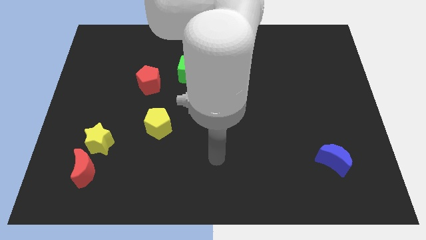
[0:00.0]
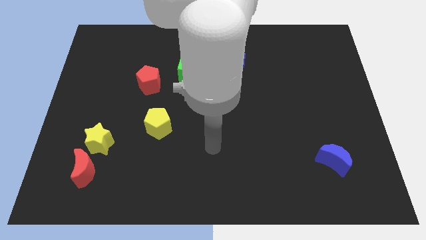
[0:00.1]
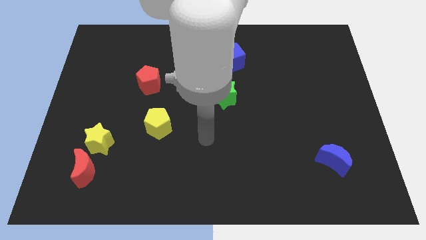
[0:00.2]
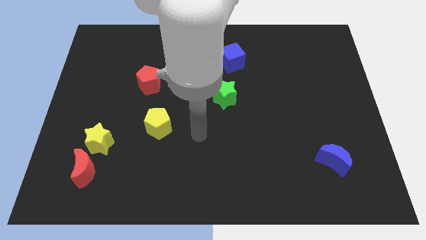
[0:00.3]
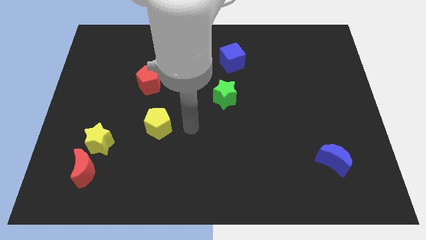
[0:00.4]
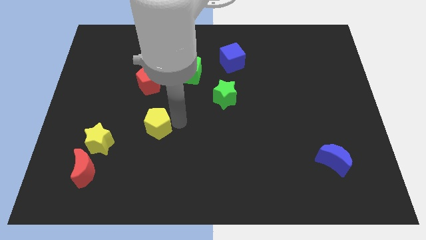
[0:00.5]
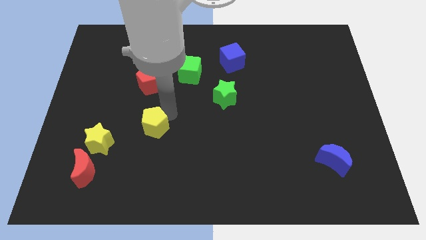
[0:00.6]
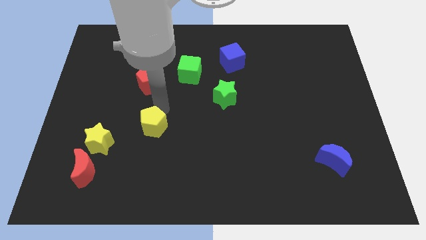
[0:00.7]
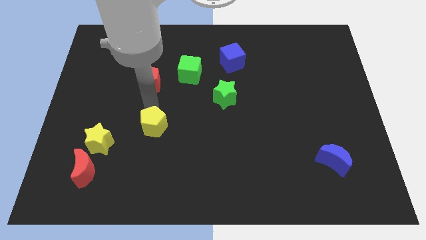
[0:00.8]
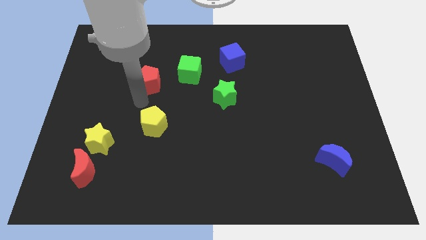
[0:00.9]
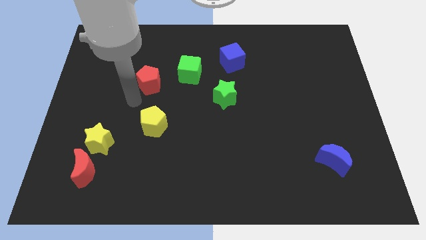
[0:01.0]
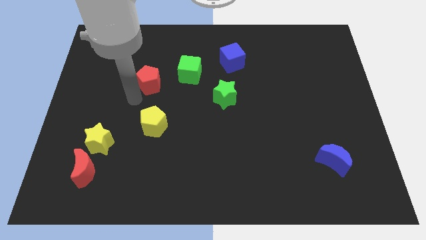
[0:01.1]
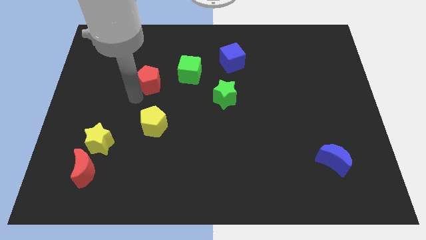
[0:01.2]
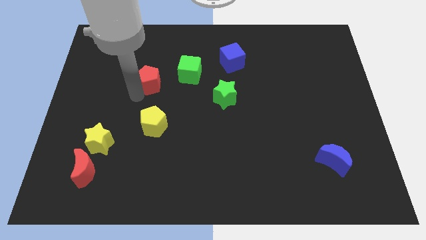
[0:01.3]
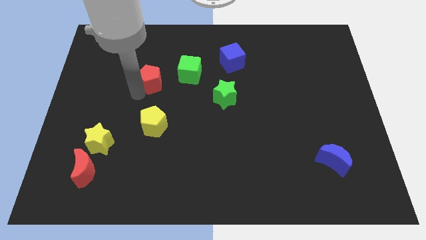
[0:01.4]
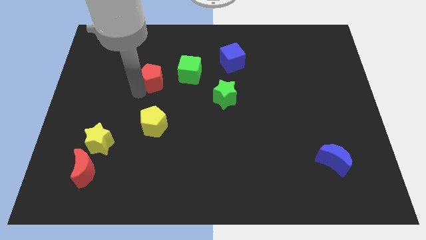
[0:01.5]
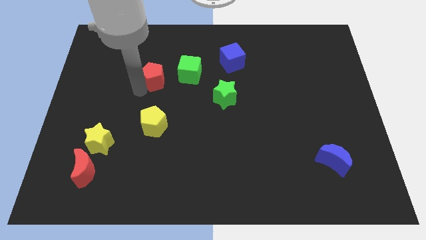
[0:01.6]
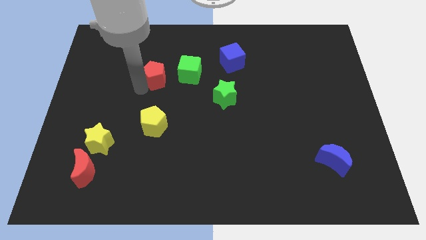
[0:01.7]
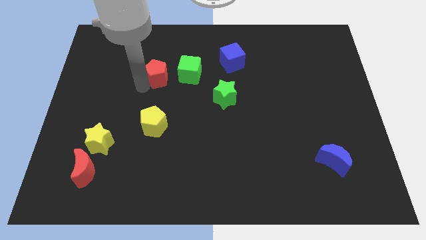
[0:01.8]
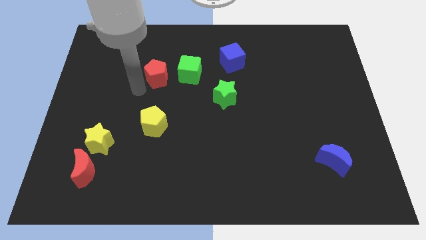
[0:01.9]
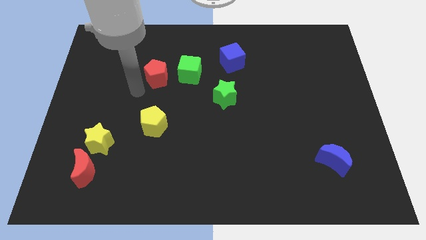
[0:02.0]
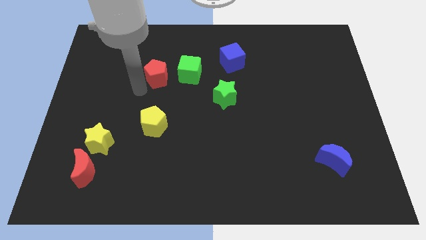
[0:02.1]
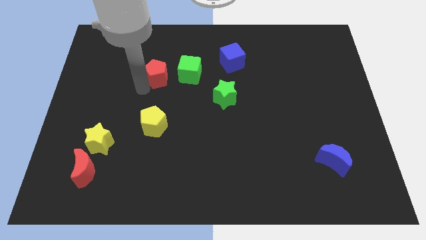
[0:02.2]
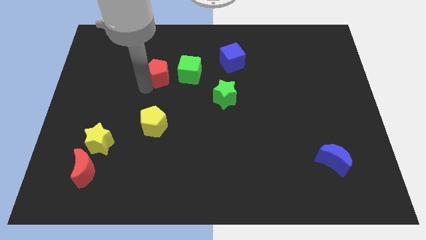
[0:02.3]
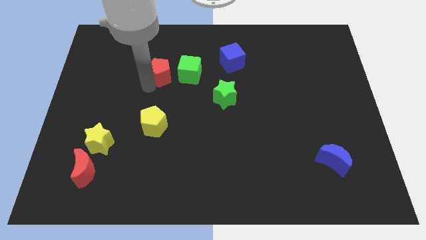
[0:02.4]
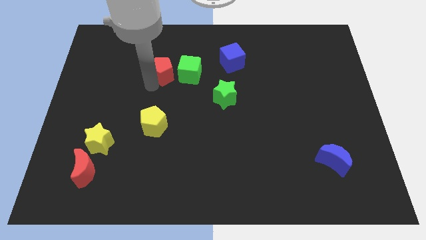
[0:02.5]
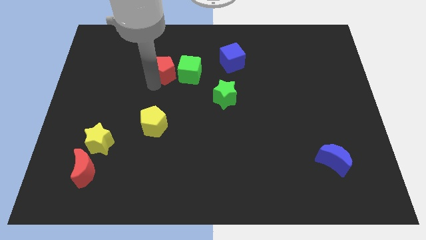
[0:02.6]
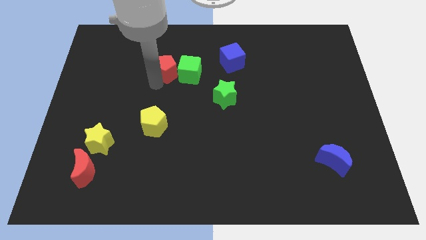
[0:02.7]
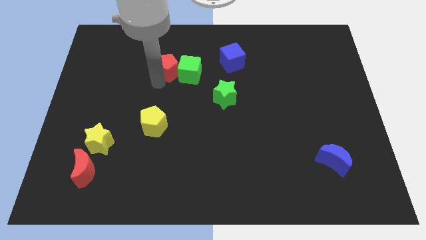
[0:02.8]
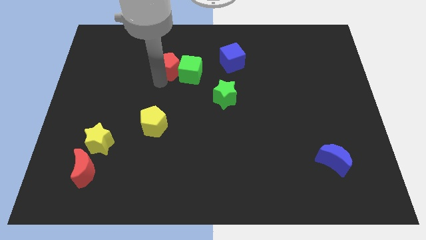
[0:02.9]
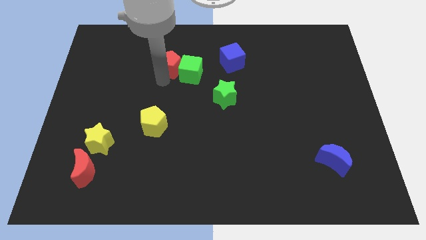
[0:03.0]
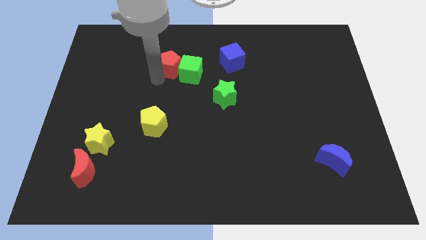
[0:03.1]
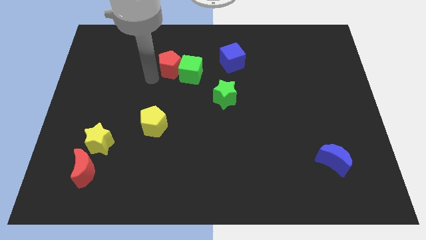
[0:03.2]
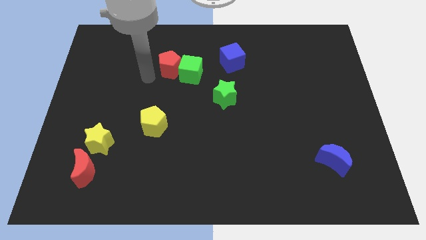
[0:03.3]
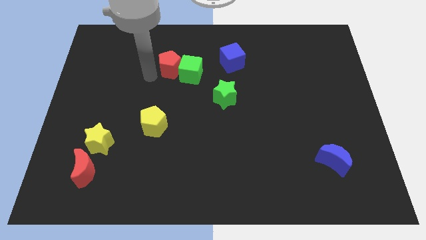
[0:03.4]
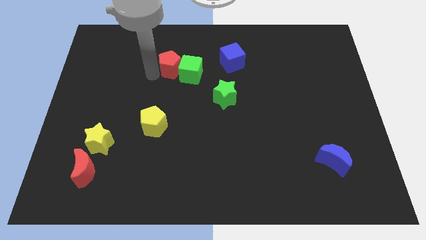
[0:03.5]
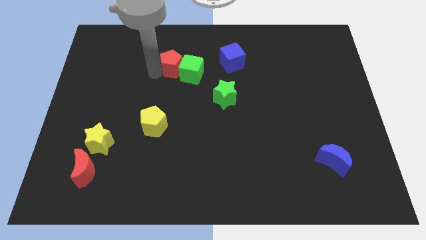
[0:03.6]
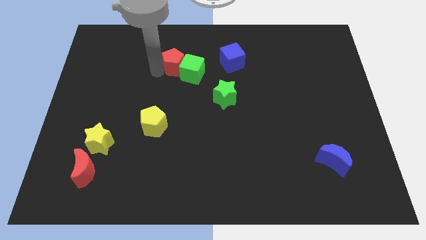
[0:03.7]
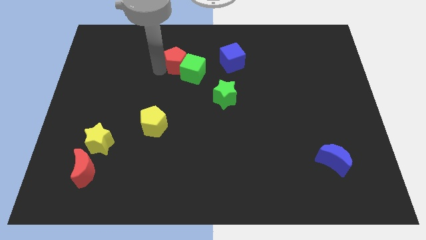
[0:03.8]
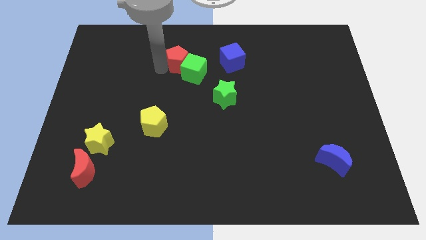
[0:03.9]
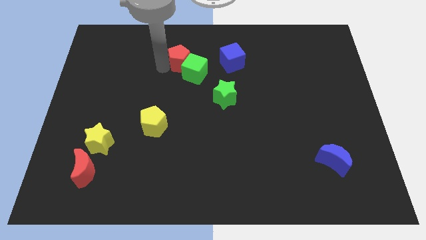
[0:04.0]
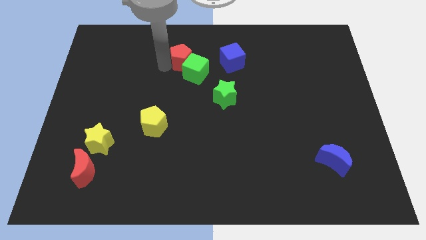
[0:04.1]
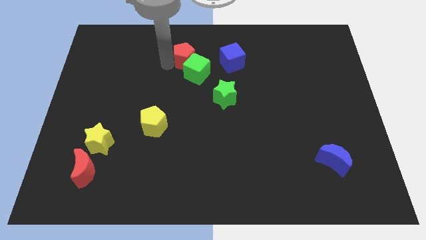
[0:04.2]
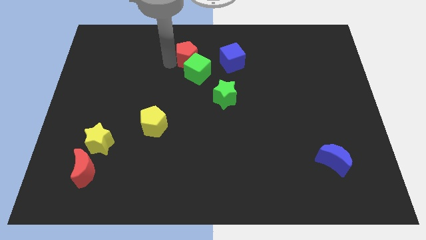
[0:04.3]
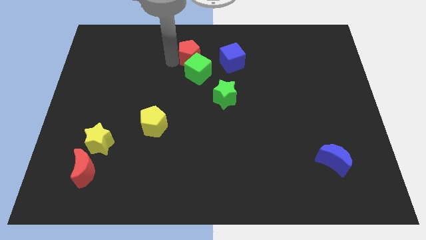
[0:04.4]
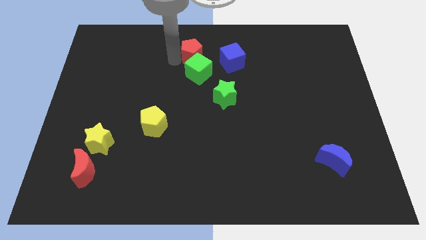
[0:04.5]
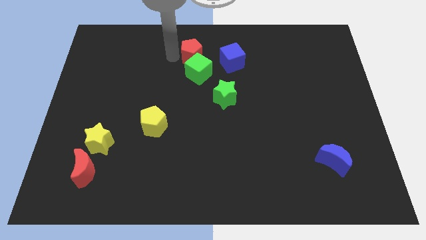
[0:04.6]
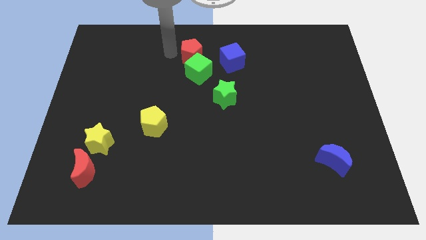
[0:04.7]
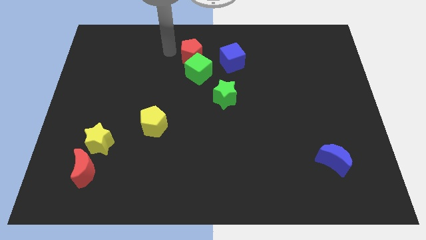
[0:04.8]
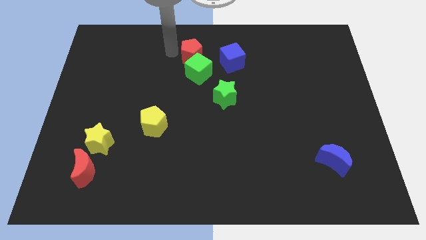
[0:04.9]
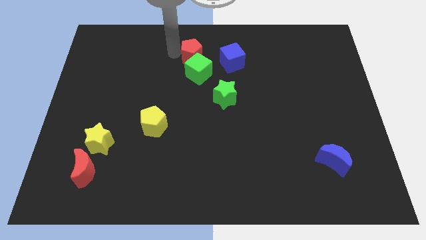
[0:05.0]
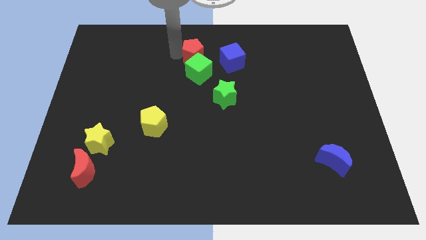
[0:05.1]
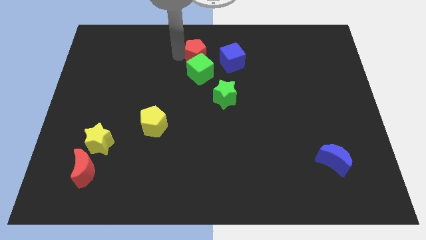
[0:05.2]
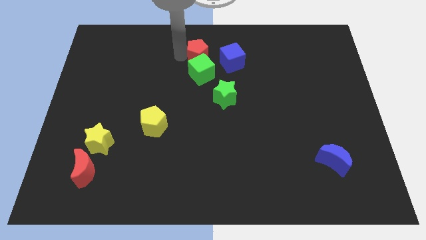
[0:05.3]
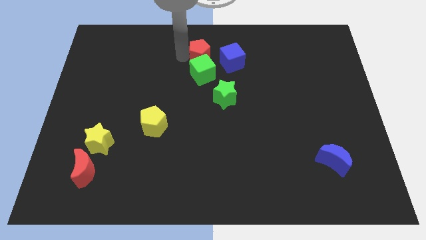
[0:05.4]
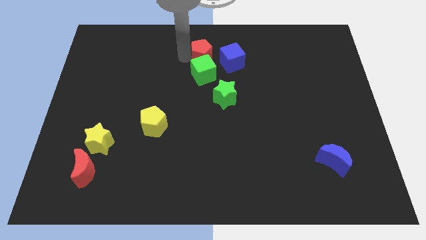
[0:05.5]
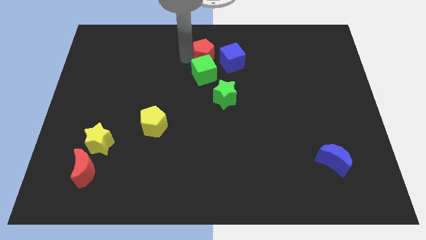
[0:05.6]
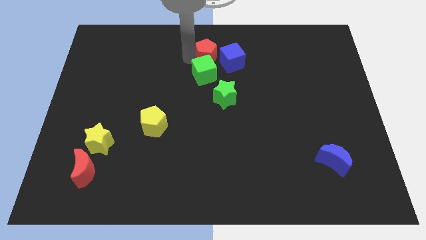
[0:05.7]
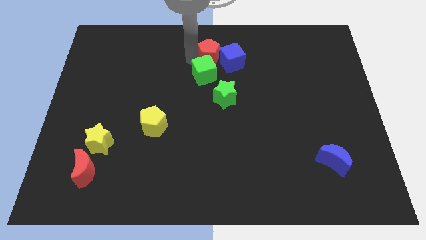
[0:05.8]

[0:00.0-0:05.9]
push the red pentagon to the blue cube

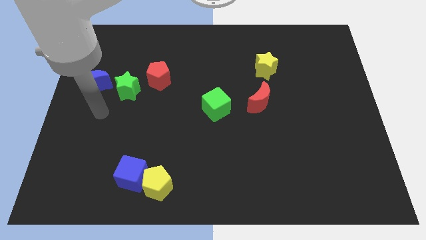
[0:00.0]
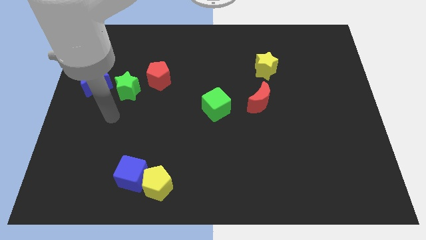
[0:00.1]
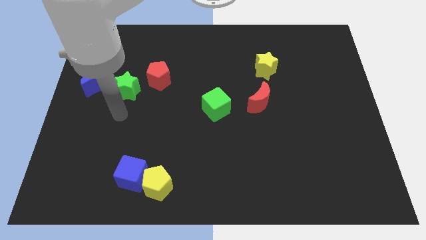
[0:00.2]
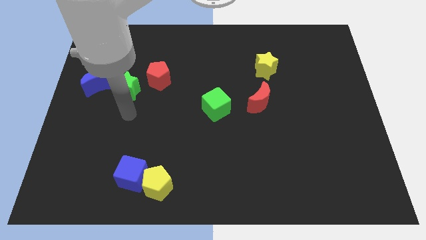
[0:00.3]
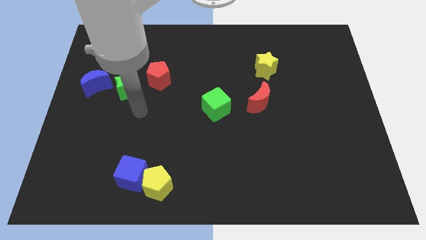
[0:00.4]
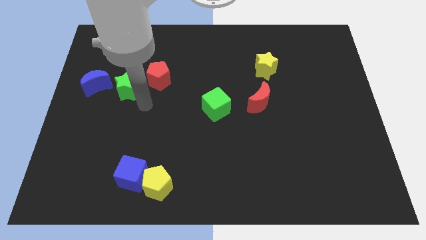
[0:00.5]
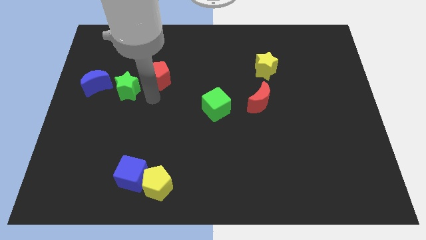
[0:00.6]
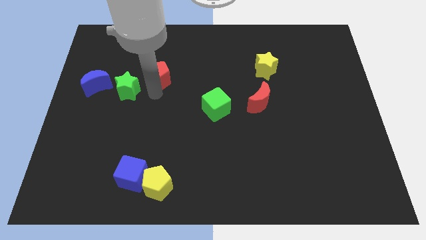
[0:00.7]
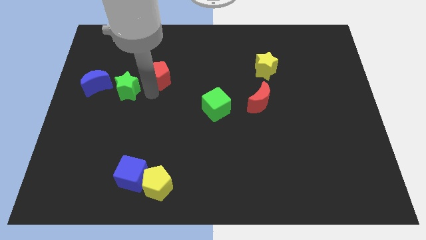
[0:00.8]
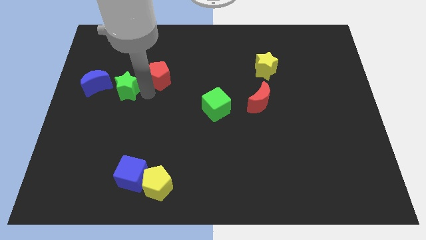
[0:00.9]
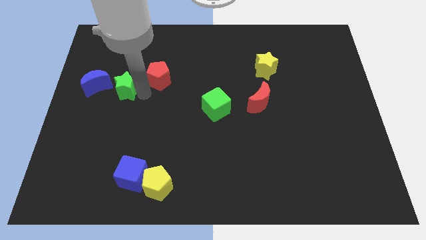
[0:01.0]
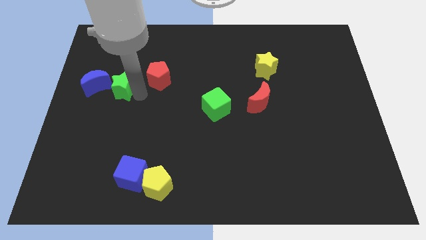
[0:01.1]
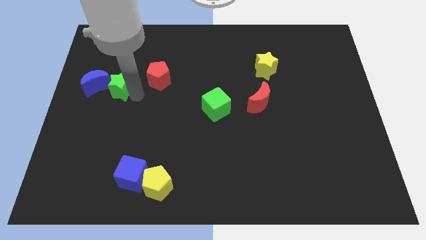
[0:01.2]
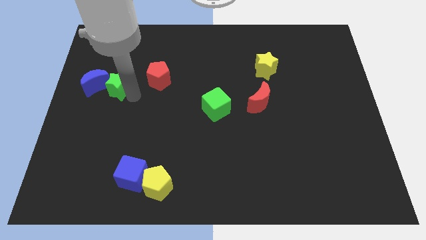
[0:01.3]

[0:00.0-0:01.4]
slide the green star close to the blue moon

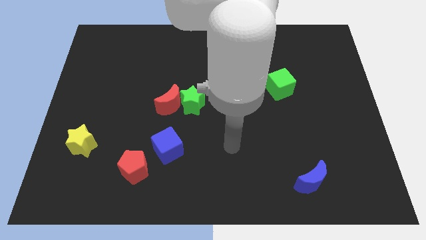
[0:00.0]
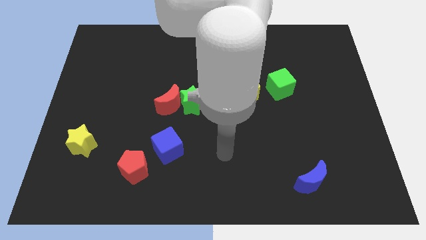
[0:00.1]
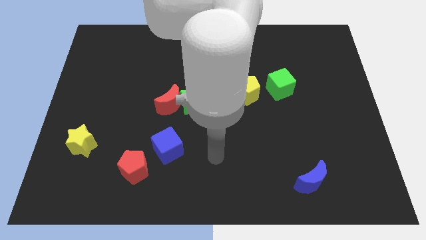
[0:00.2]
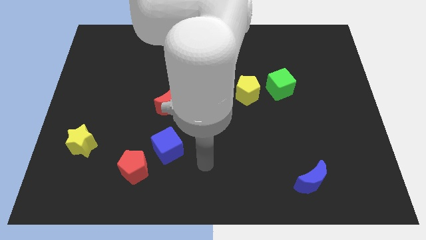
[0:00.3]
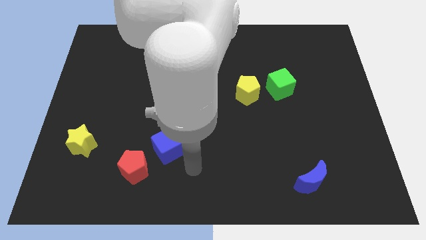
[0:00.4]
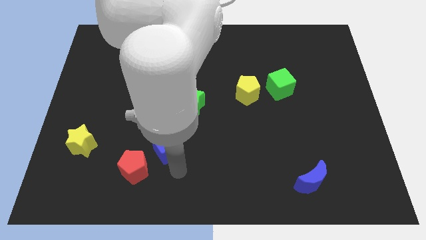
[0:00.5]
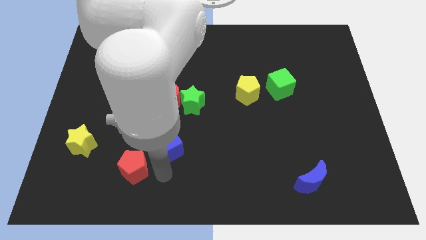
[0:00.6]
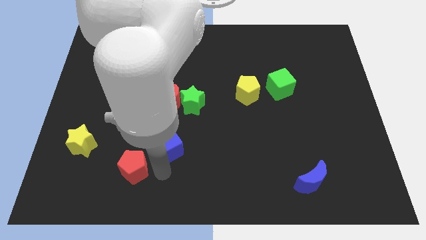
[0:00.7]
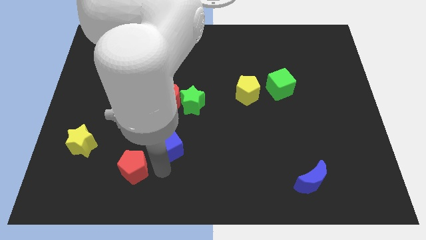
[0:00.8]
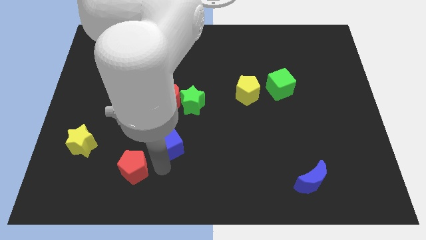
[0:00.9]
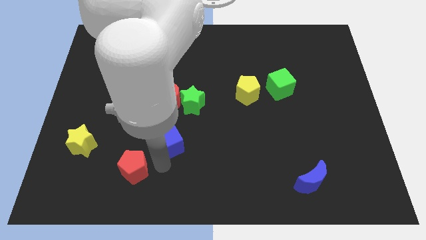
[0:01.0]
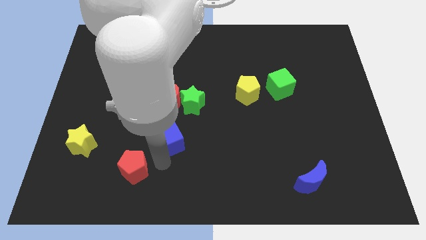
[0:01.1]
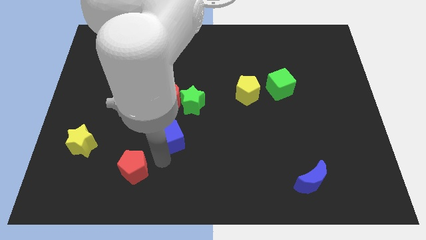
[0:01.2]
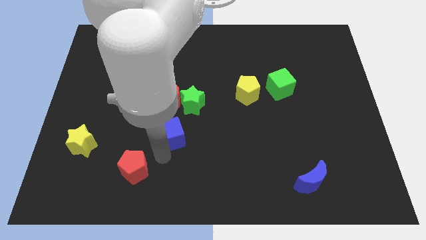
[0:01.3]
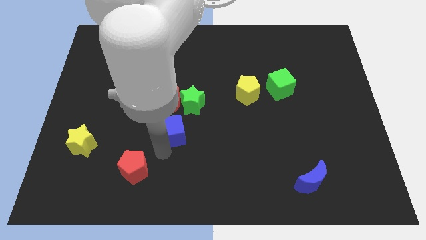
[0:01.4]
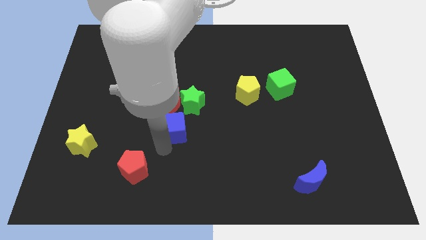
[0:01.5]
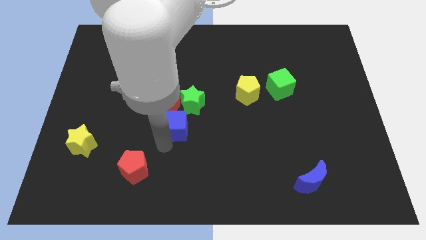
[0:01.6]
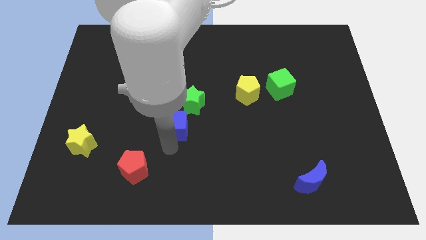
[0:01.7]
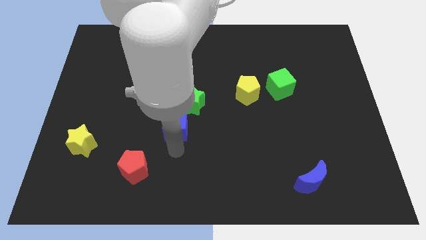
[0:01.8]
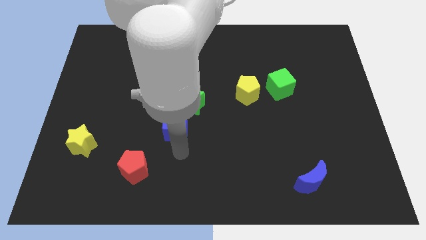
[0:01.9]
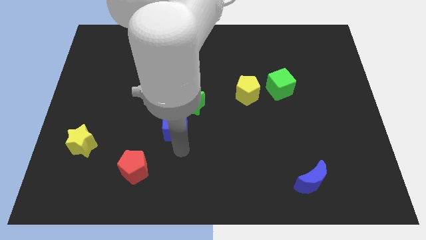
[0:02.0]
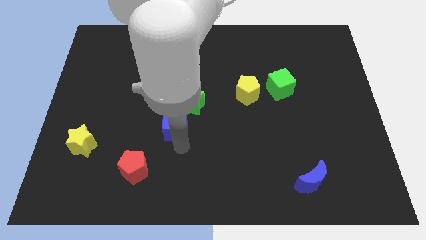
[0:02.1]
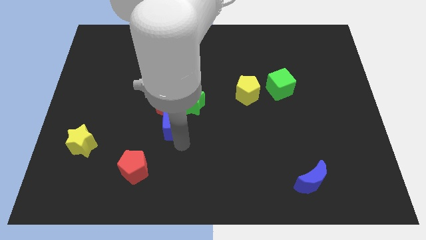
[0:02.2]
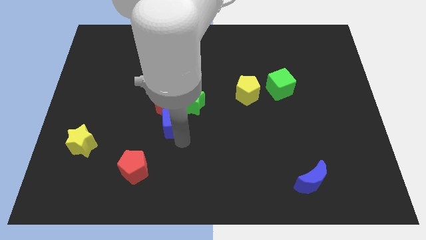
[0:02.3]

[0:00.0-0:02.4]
move the blue cube towards the red moon
